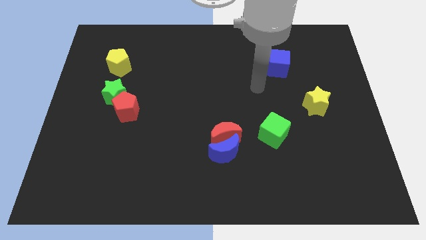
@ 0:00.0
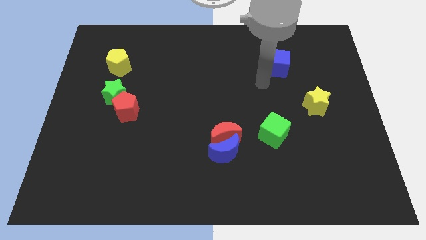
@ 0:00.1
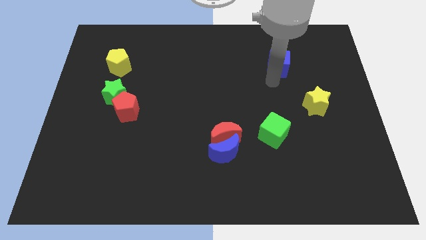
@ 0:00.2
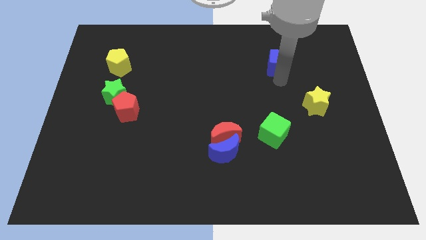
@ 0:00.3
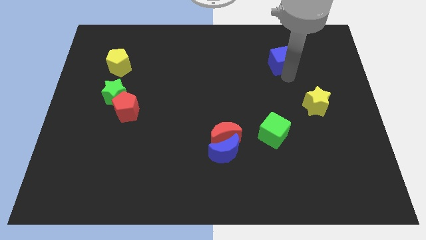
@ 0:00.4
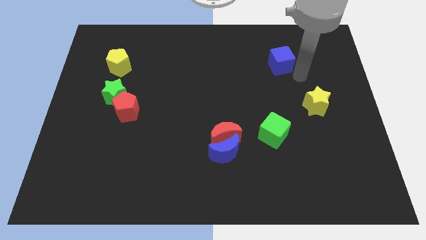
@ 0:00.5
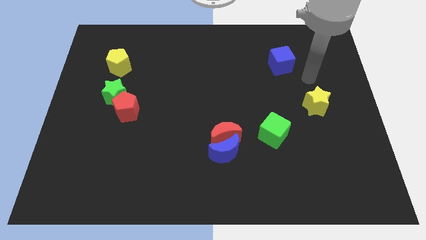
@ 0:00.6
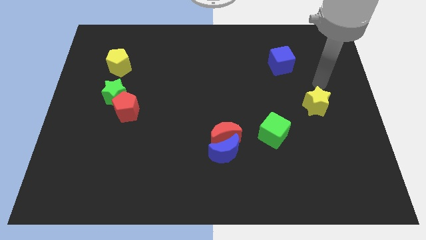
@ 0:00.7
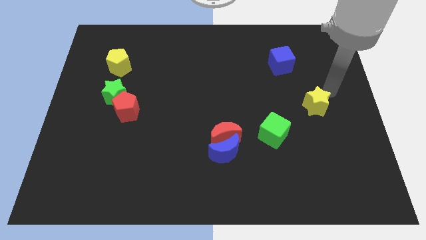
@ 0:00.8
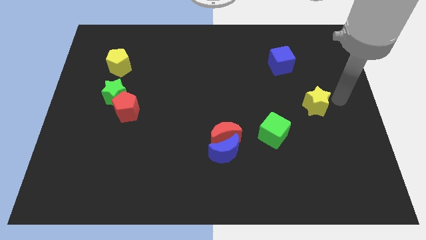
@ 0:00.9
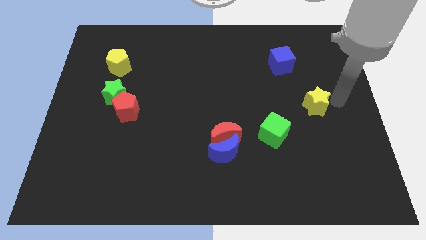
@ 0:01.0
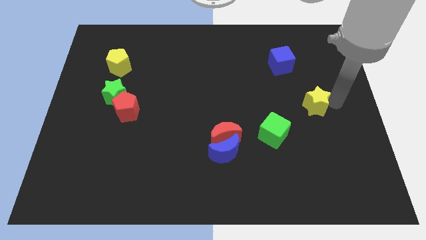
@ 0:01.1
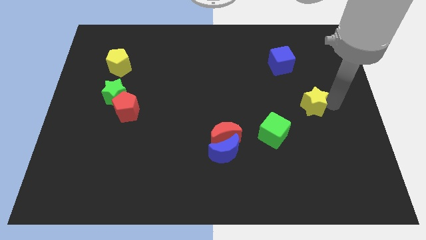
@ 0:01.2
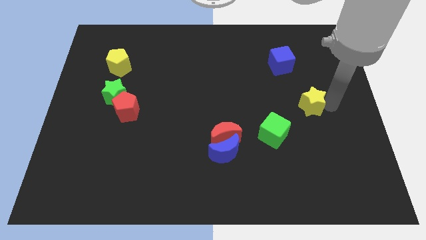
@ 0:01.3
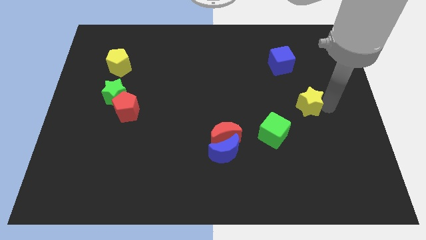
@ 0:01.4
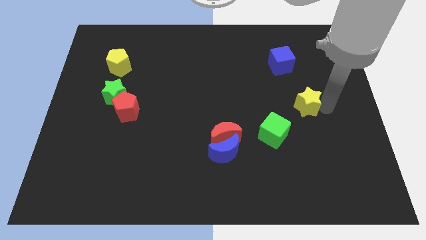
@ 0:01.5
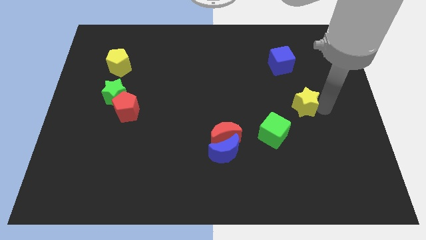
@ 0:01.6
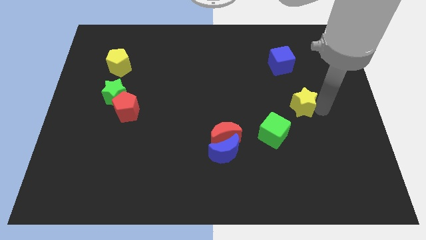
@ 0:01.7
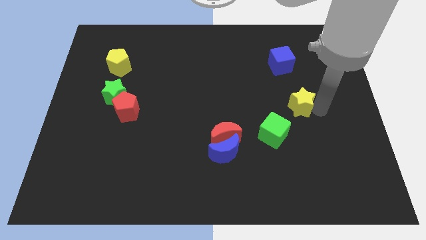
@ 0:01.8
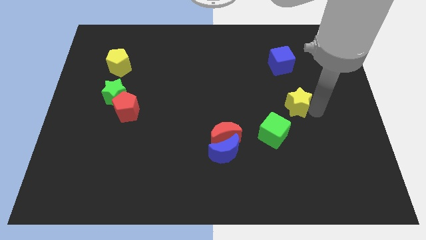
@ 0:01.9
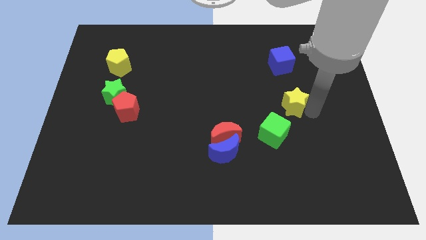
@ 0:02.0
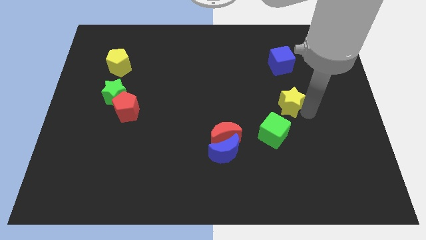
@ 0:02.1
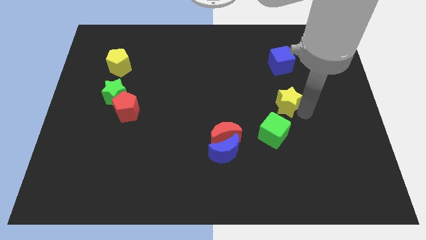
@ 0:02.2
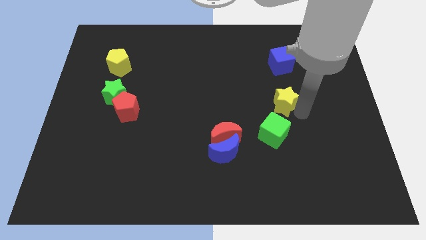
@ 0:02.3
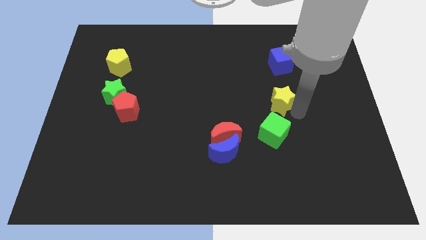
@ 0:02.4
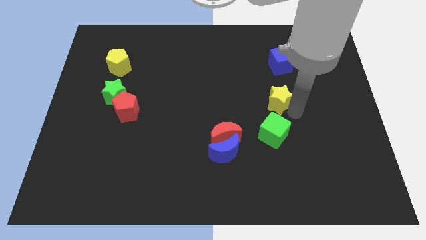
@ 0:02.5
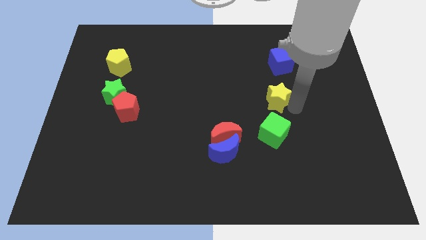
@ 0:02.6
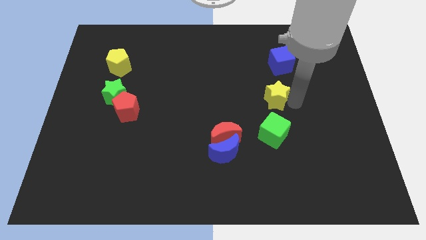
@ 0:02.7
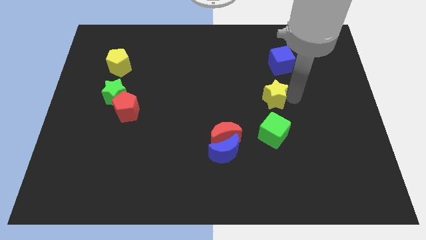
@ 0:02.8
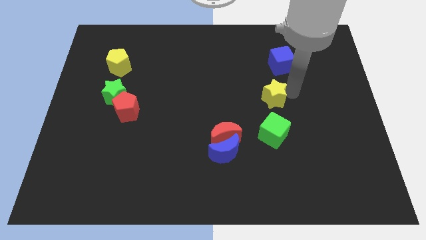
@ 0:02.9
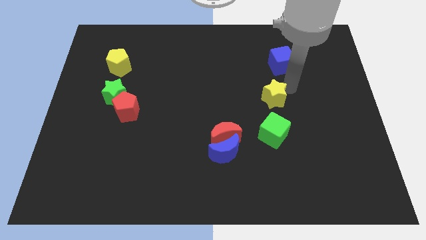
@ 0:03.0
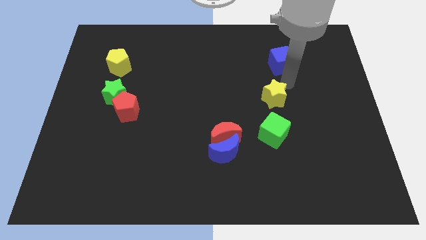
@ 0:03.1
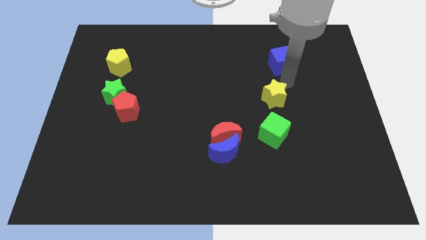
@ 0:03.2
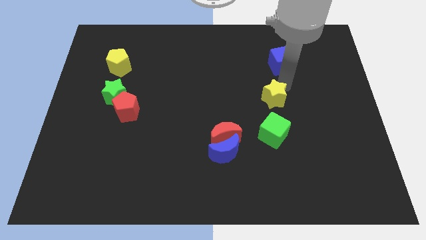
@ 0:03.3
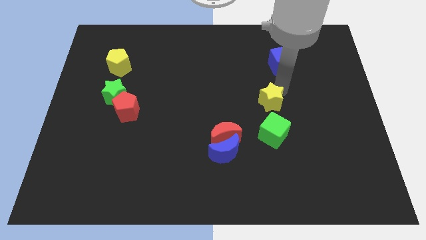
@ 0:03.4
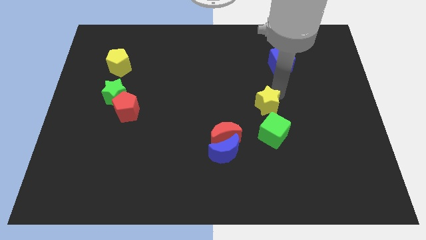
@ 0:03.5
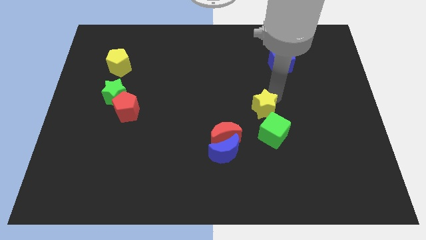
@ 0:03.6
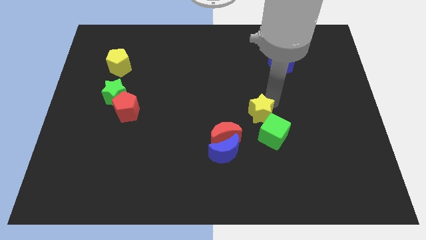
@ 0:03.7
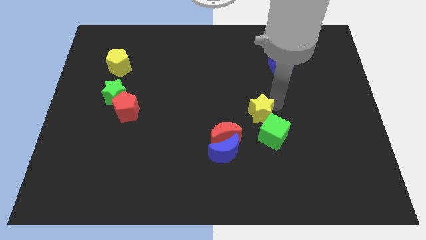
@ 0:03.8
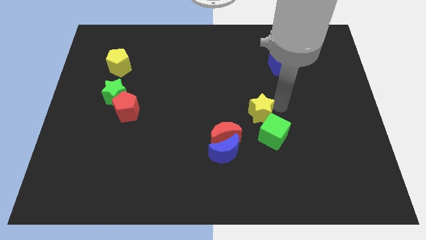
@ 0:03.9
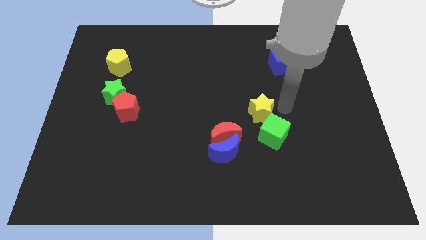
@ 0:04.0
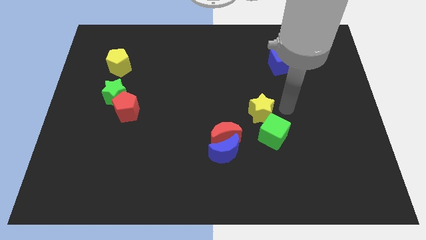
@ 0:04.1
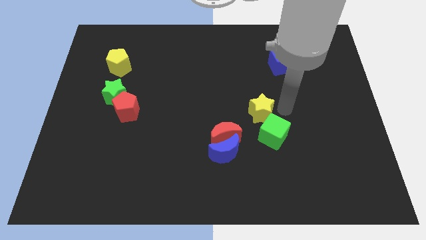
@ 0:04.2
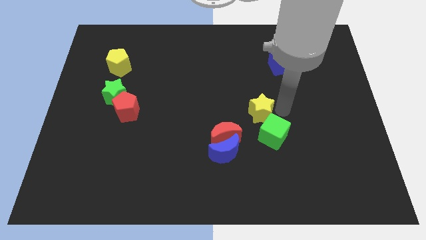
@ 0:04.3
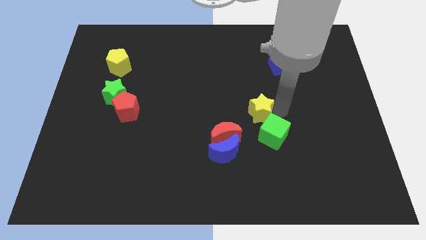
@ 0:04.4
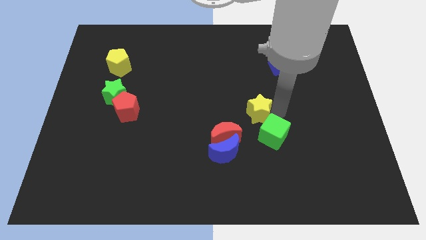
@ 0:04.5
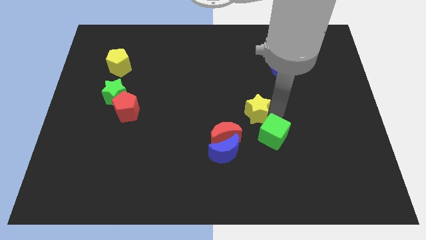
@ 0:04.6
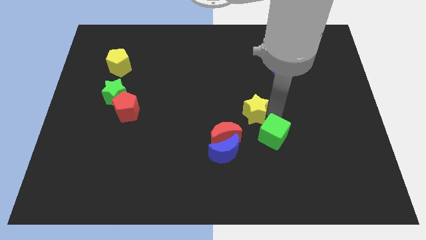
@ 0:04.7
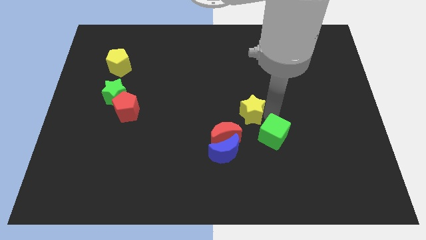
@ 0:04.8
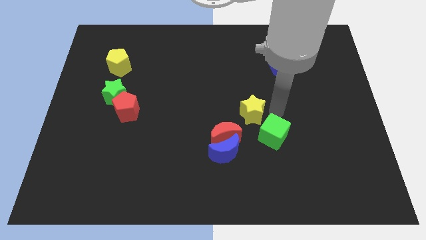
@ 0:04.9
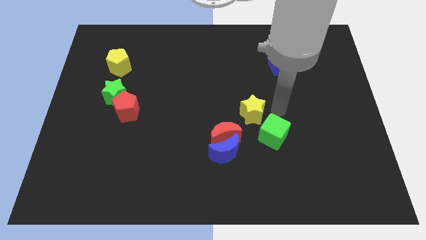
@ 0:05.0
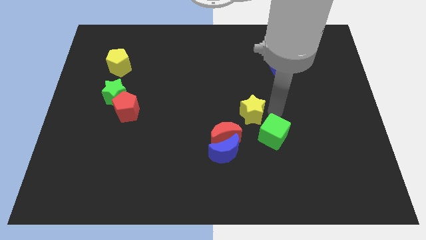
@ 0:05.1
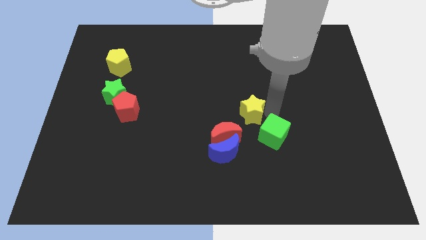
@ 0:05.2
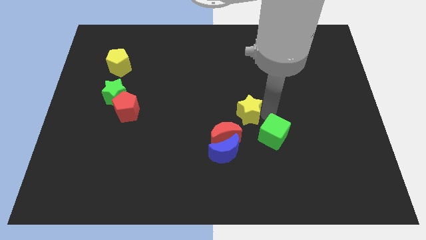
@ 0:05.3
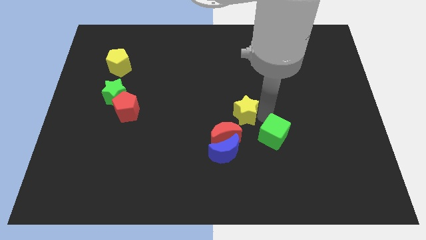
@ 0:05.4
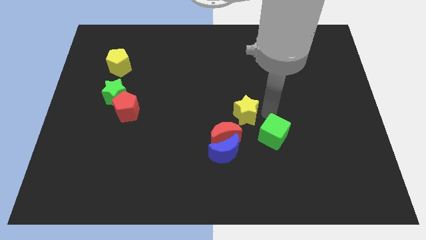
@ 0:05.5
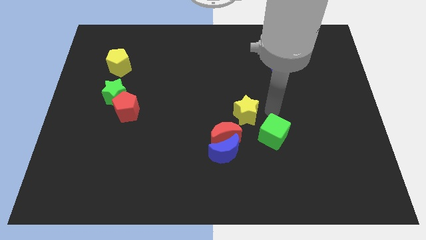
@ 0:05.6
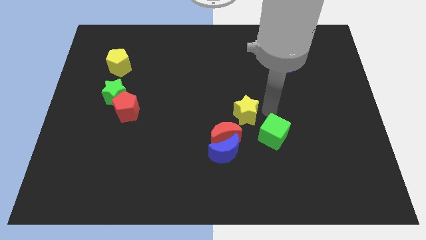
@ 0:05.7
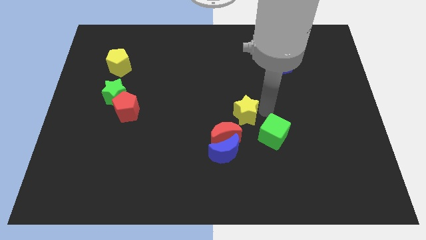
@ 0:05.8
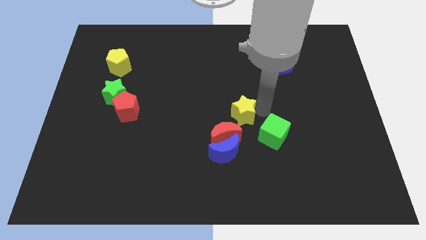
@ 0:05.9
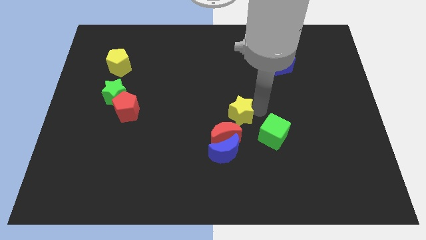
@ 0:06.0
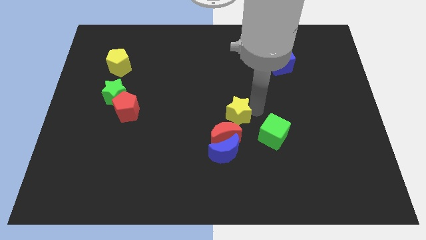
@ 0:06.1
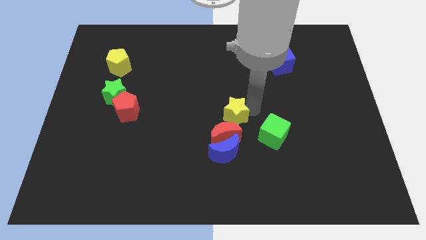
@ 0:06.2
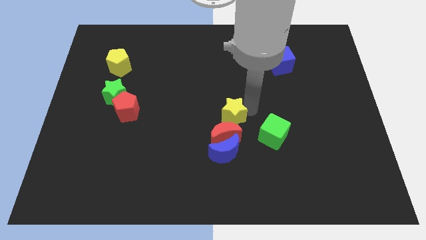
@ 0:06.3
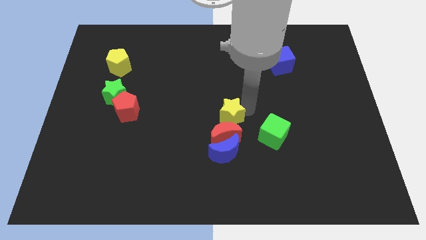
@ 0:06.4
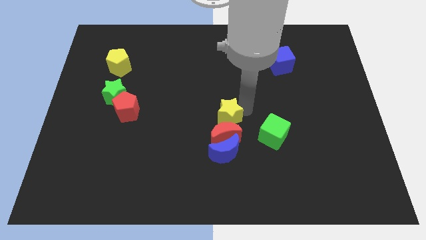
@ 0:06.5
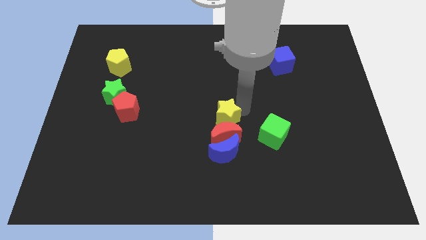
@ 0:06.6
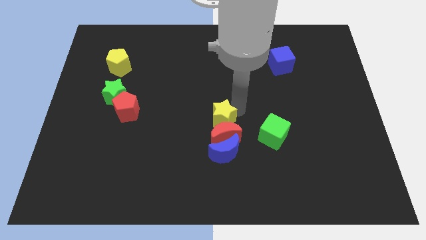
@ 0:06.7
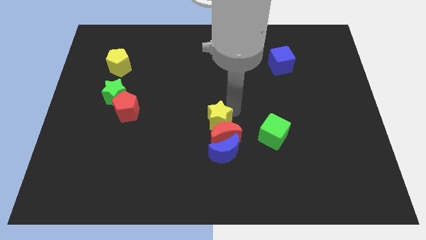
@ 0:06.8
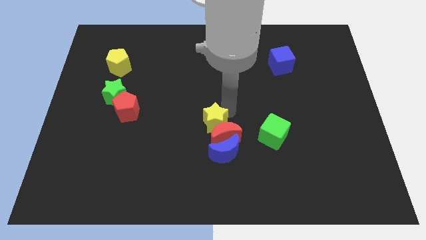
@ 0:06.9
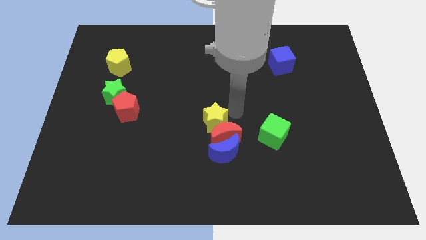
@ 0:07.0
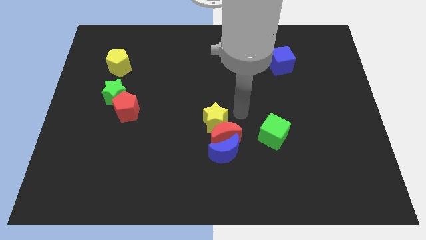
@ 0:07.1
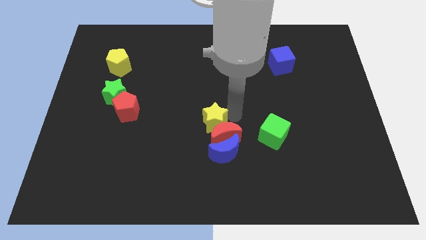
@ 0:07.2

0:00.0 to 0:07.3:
put the yellow star just left of the red moon
